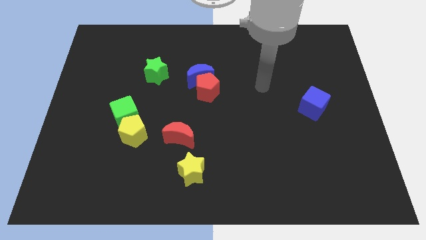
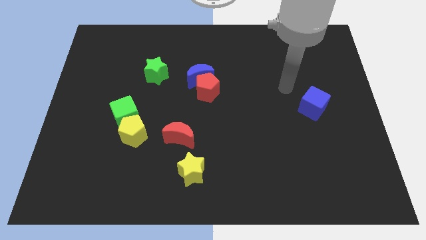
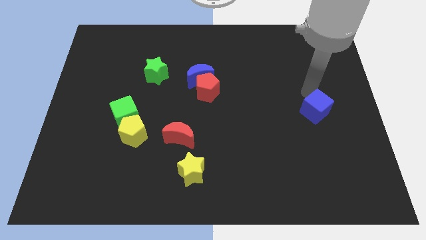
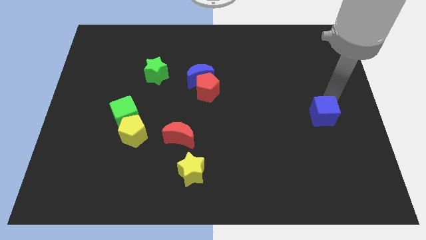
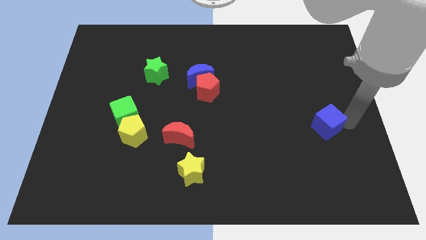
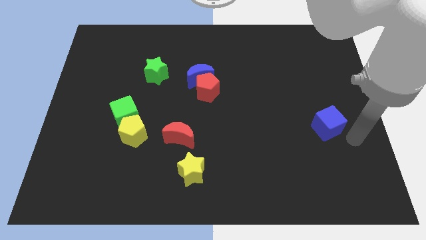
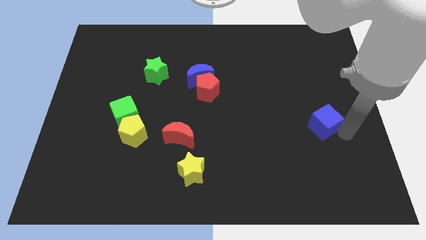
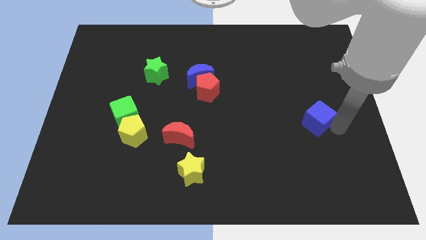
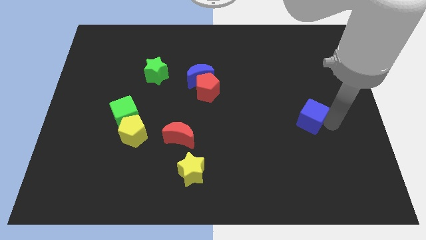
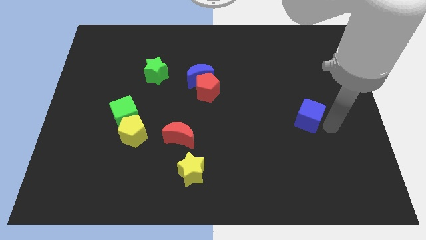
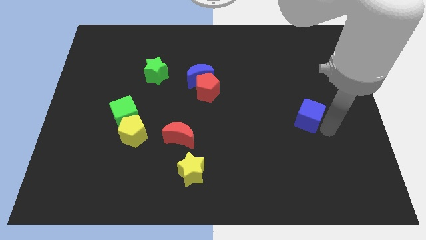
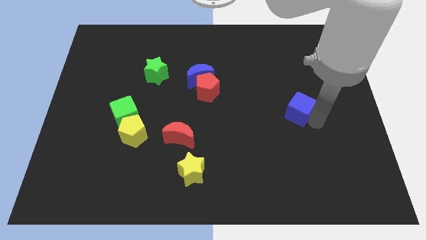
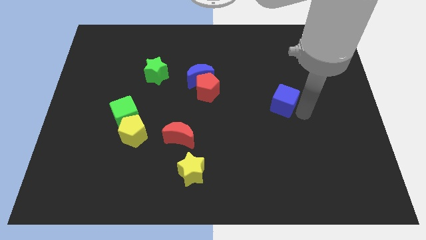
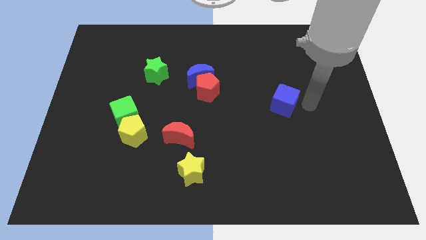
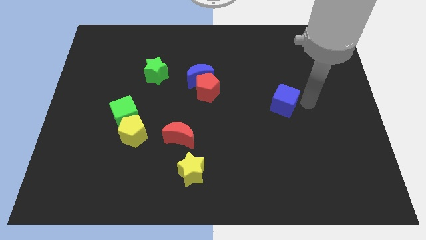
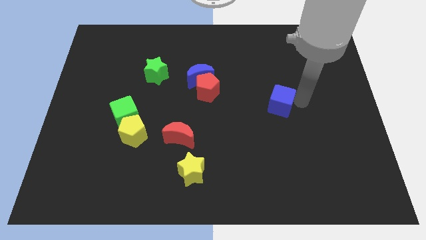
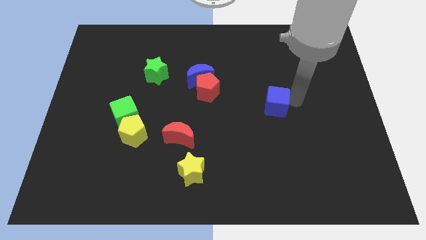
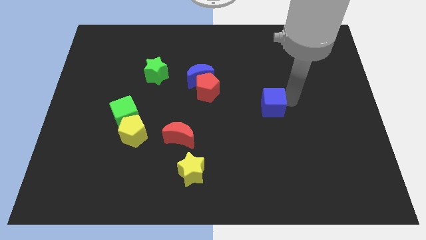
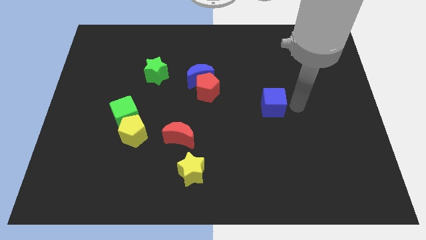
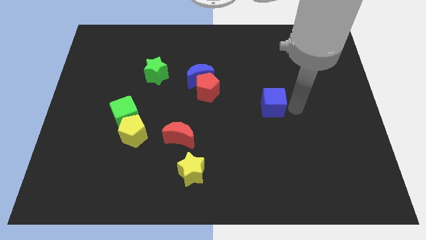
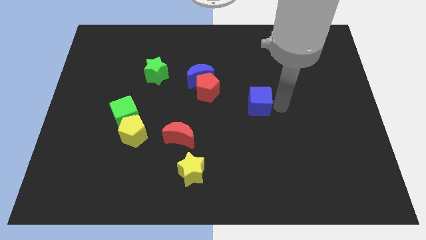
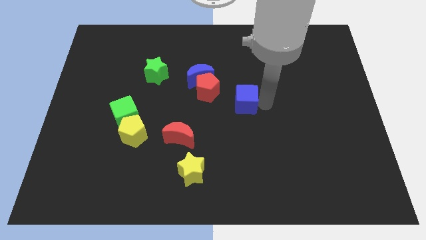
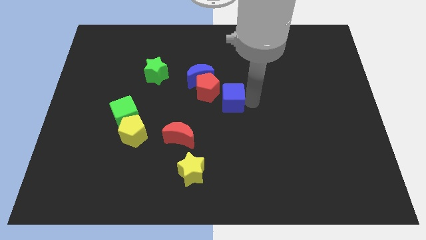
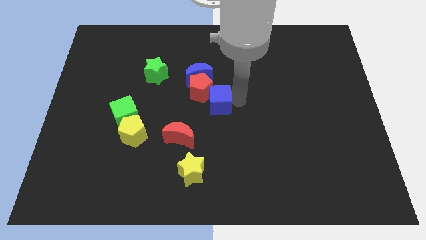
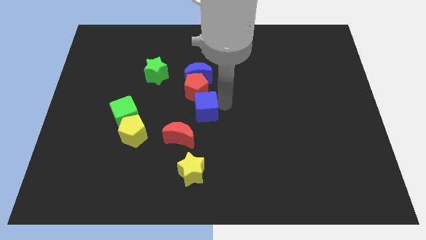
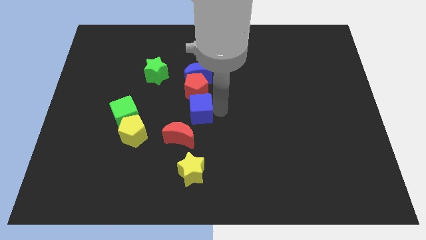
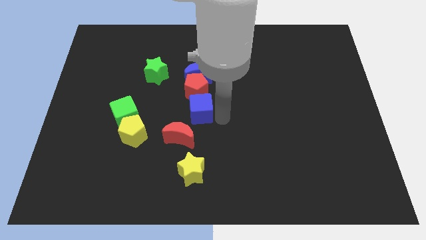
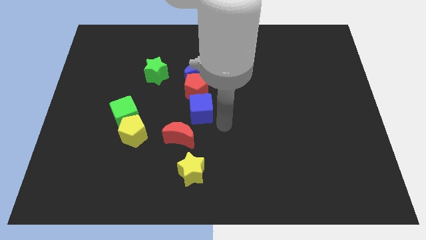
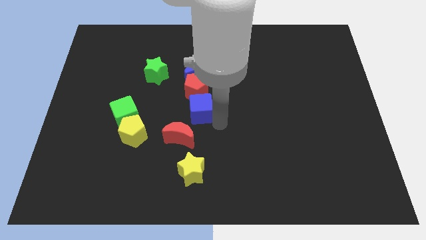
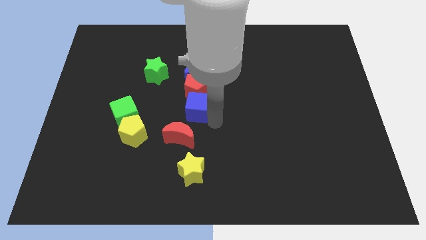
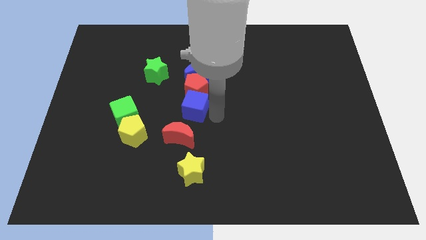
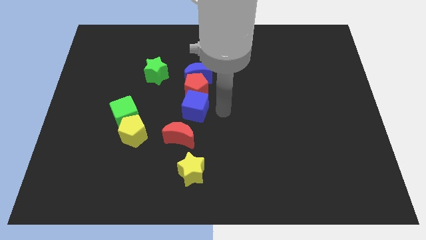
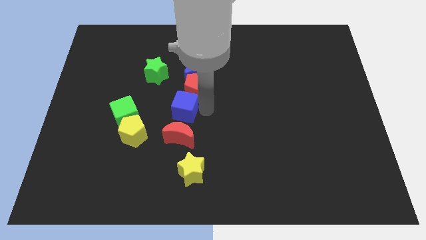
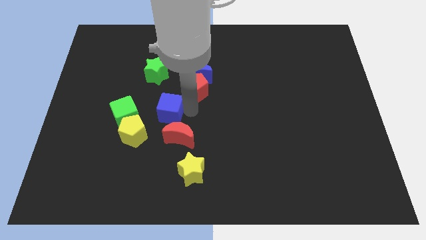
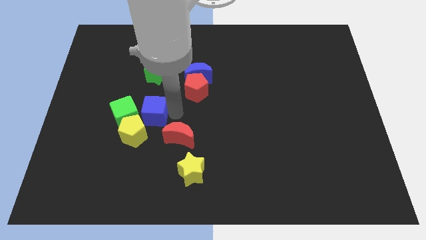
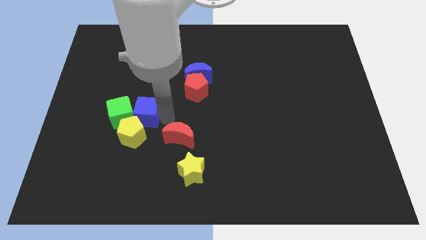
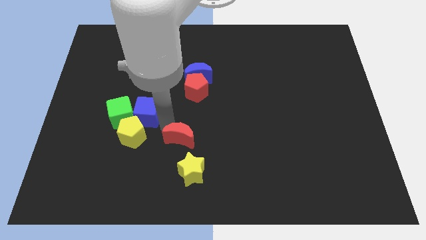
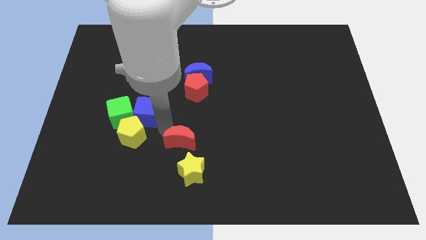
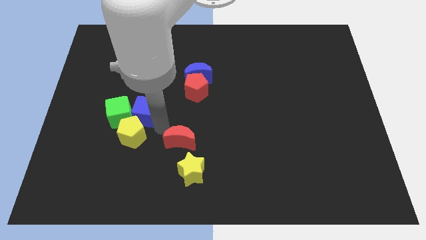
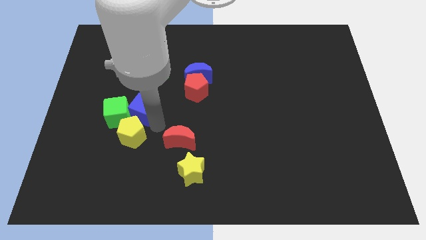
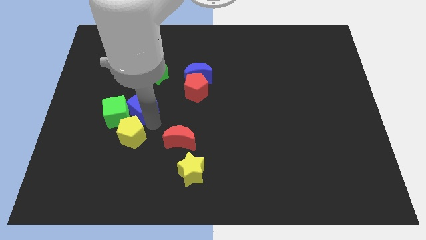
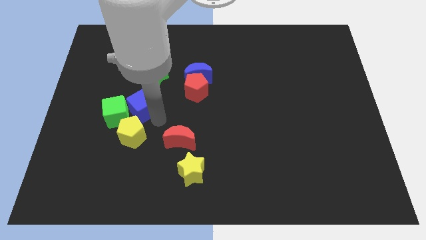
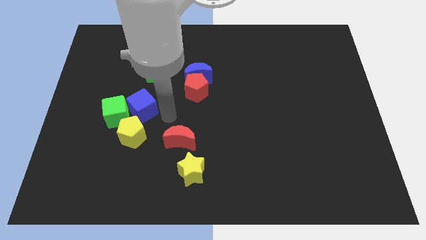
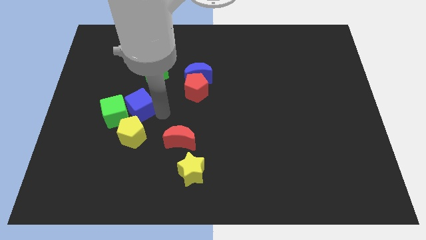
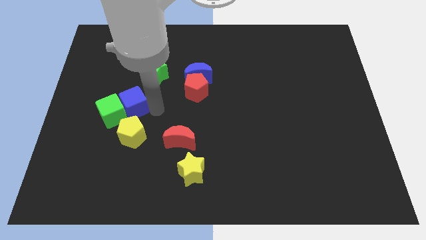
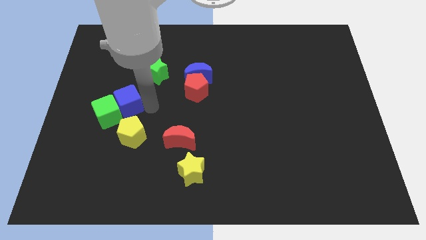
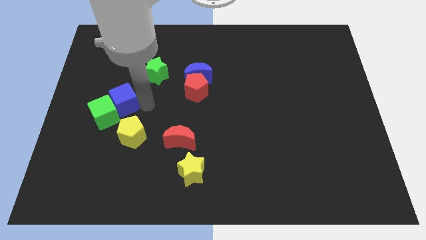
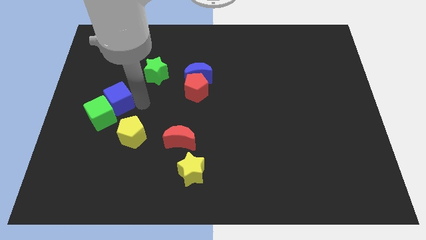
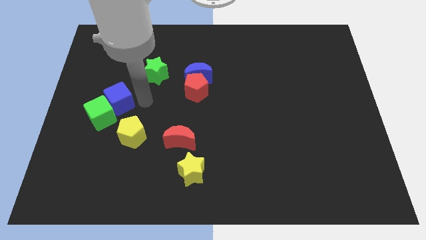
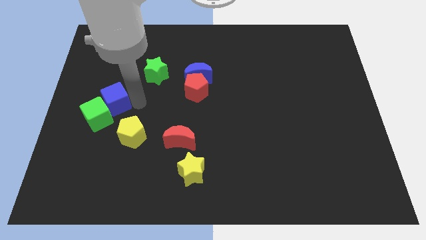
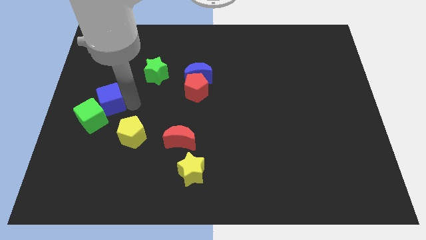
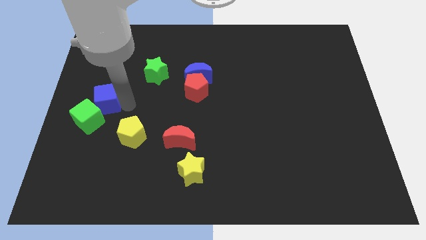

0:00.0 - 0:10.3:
push the blue cube to the left side

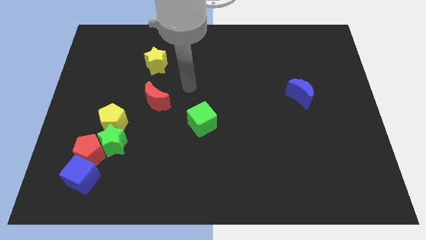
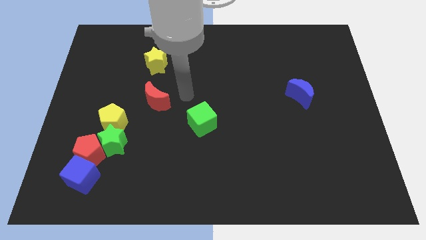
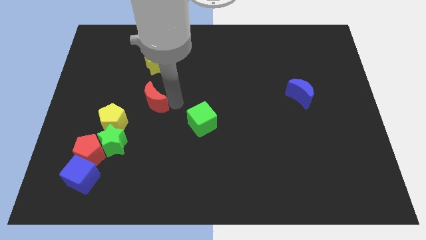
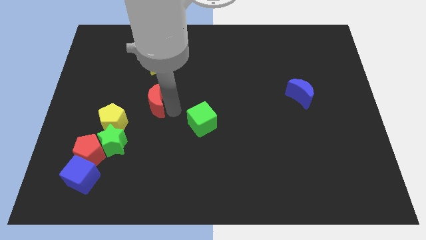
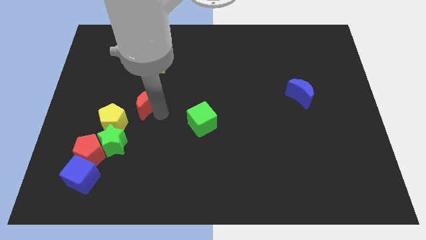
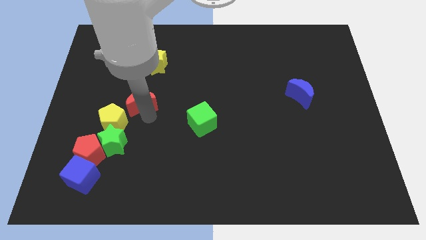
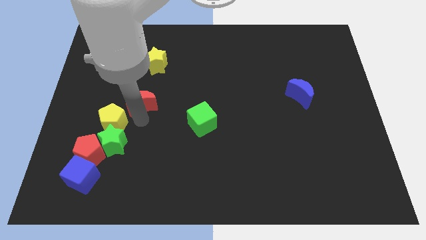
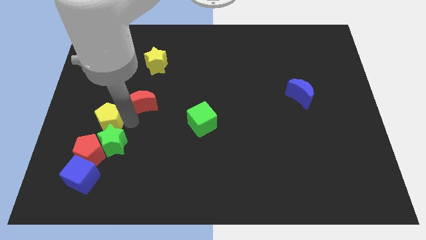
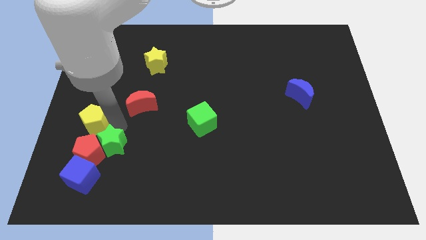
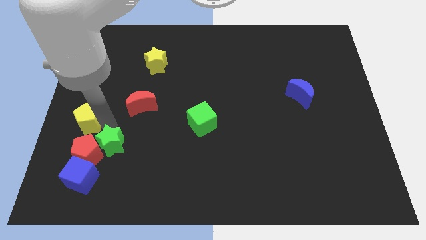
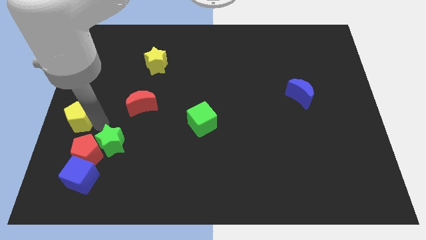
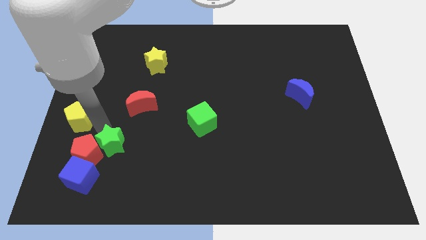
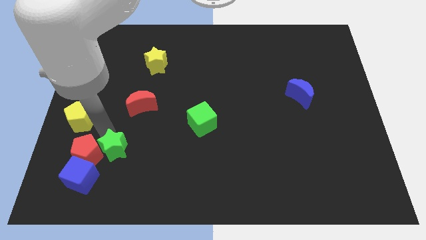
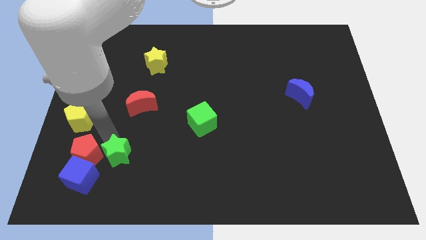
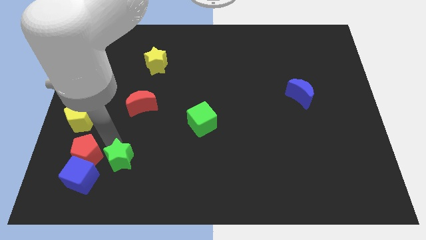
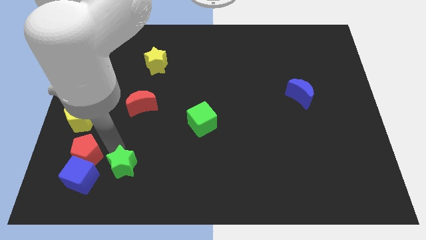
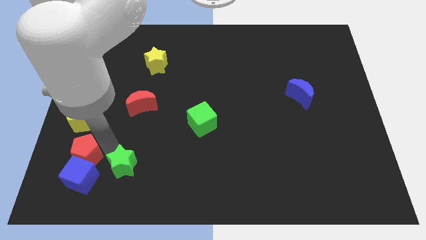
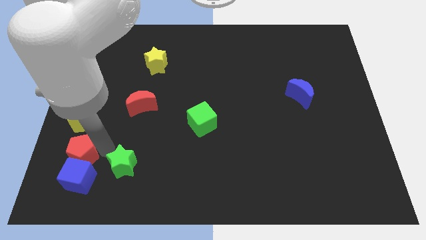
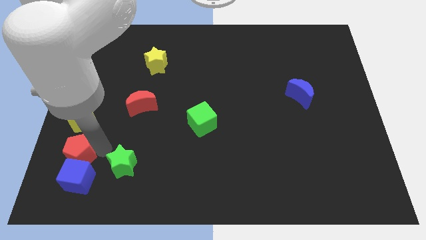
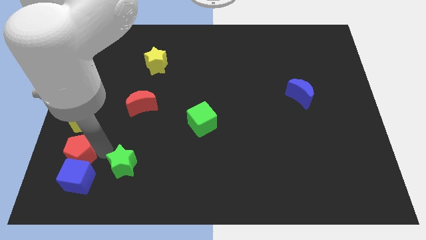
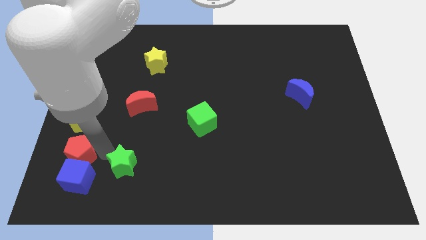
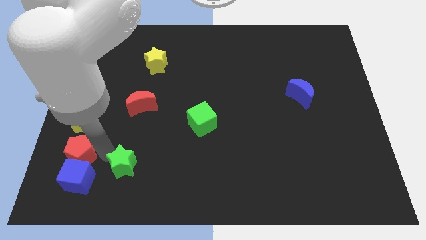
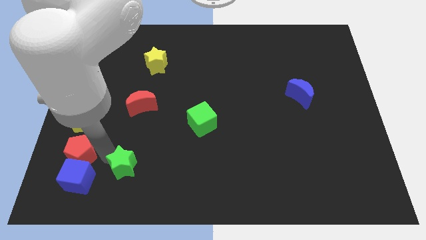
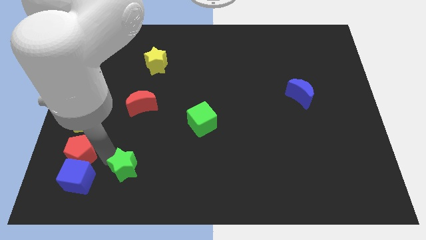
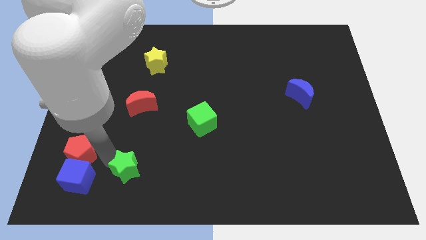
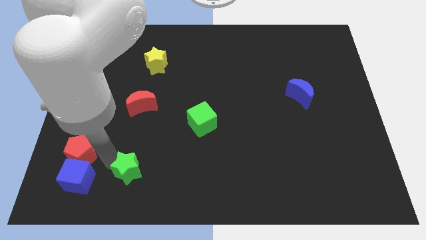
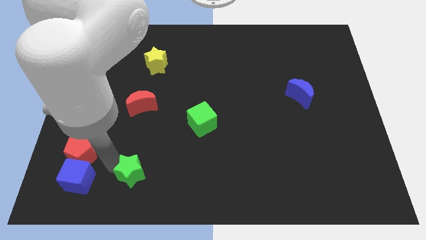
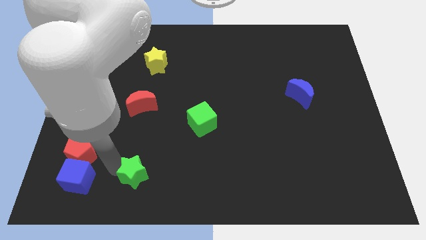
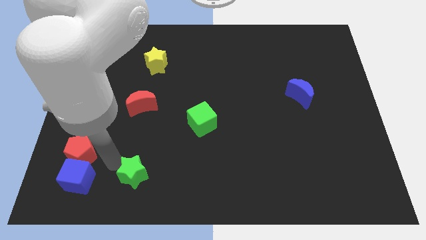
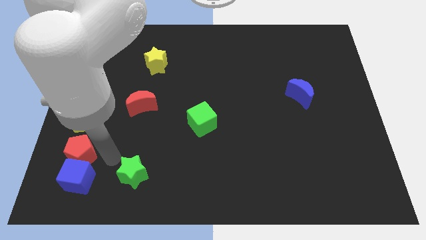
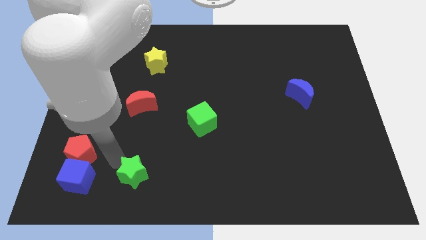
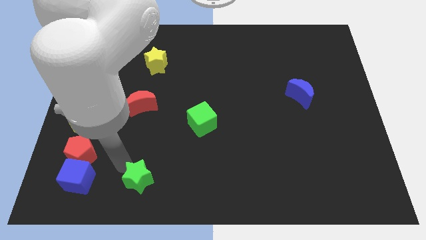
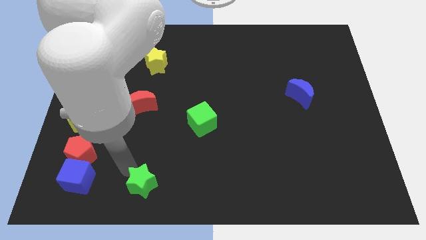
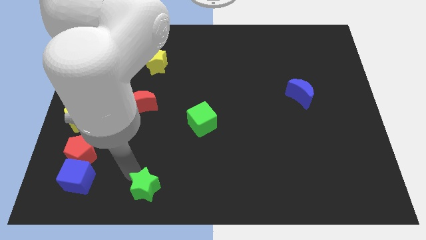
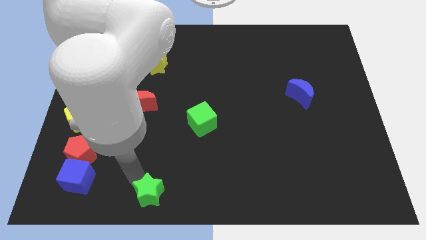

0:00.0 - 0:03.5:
move the green star to the bottom
